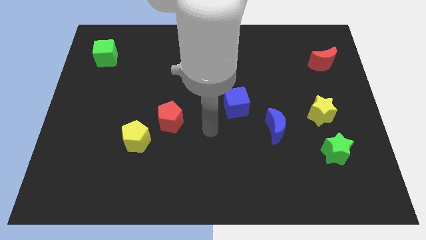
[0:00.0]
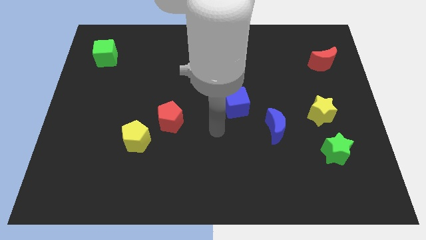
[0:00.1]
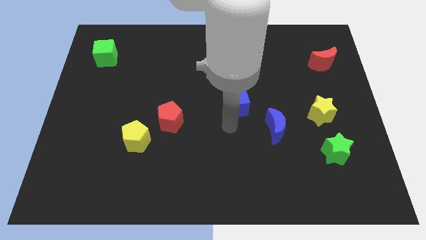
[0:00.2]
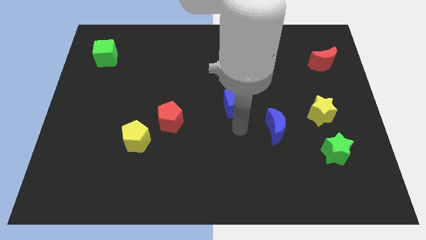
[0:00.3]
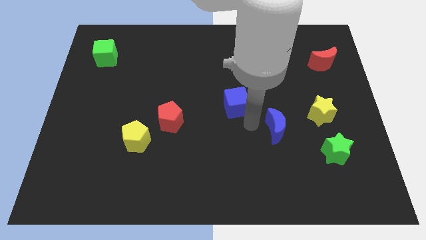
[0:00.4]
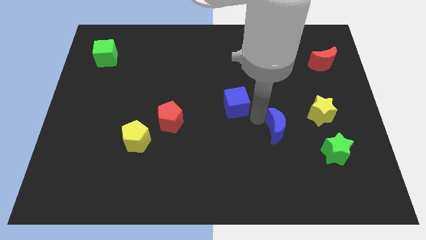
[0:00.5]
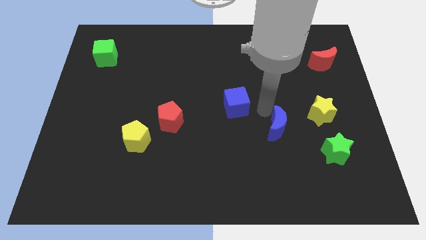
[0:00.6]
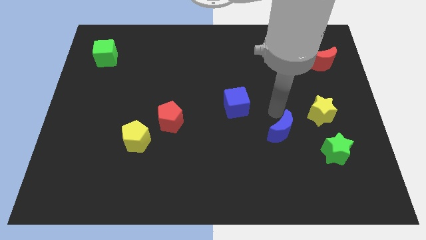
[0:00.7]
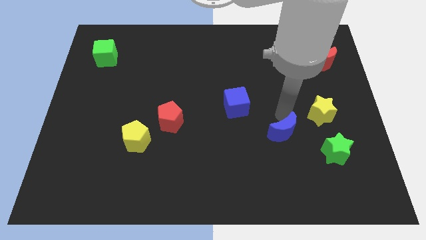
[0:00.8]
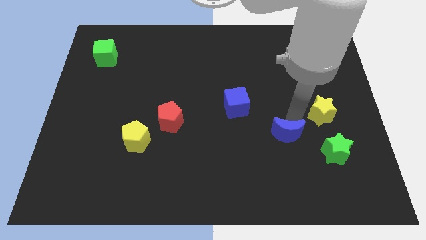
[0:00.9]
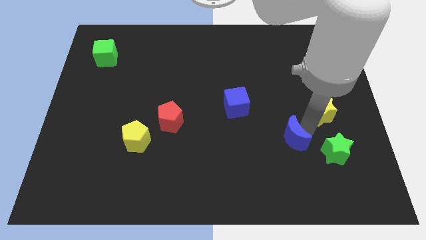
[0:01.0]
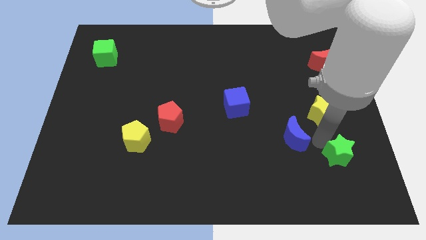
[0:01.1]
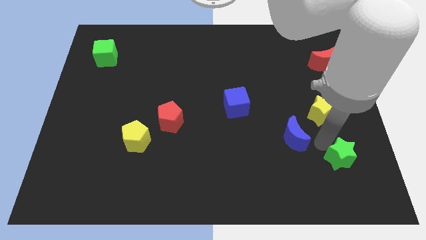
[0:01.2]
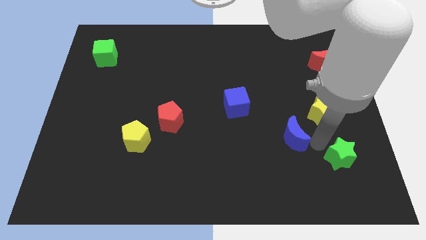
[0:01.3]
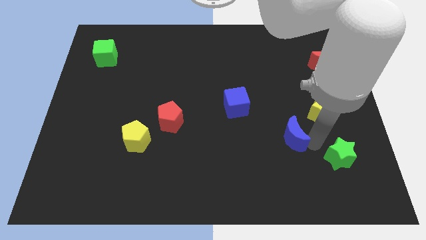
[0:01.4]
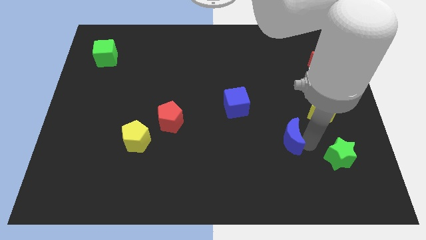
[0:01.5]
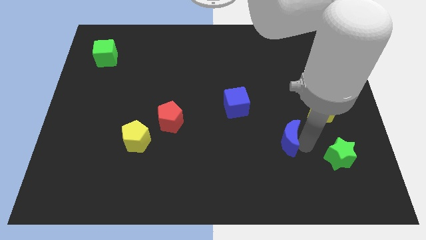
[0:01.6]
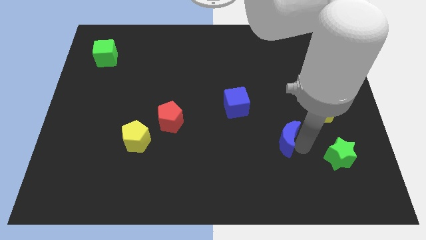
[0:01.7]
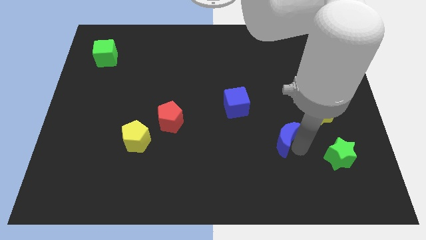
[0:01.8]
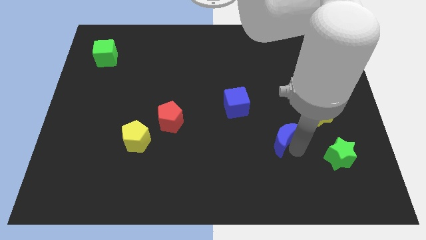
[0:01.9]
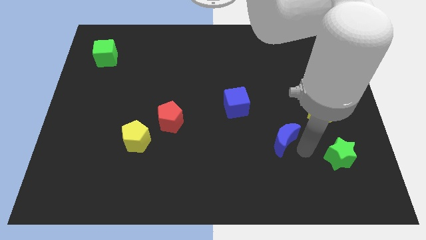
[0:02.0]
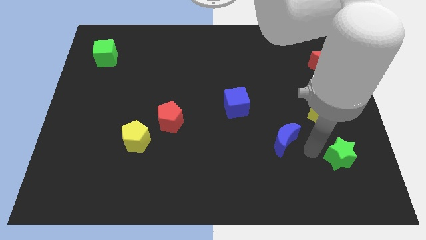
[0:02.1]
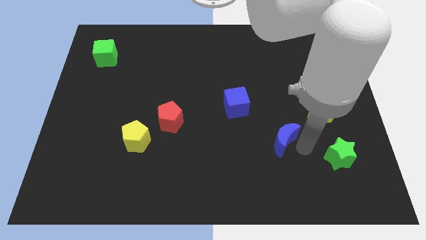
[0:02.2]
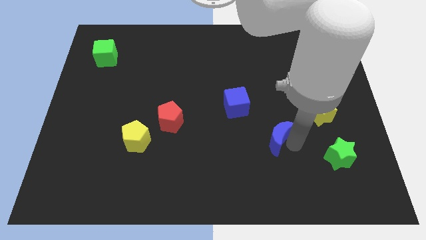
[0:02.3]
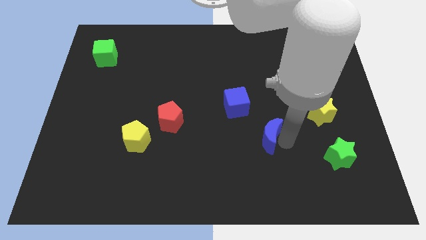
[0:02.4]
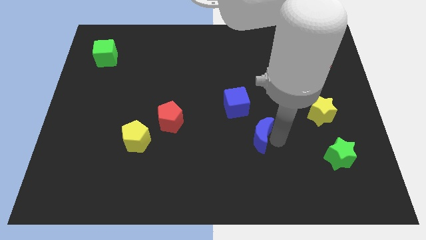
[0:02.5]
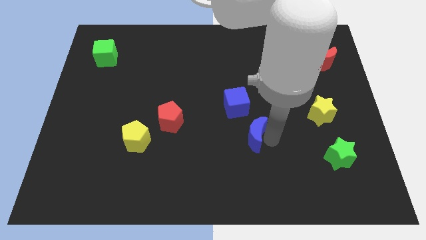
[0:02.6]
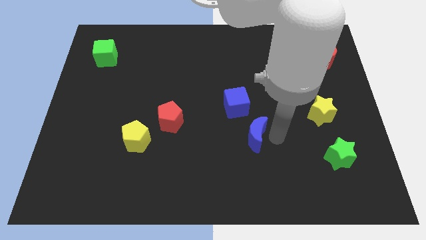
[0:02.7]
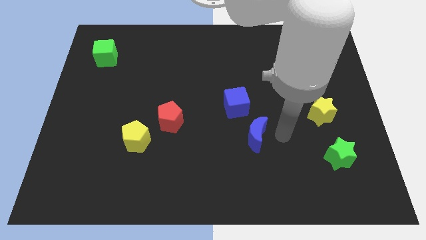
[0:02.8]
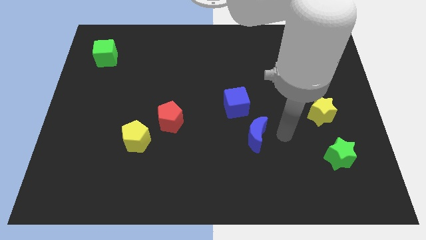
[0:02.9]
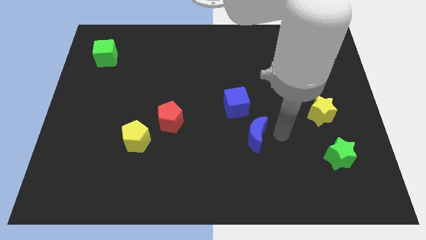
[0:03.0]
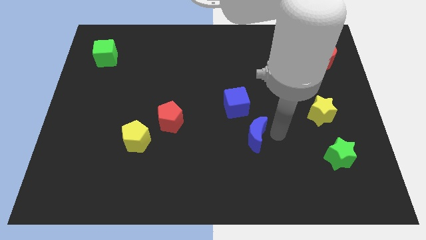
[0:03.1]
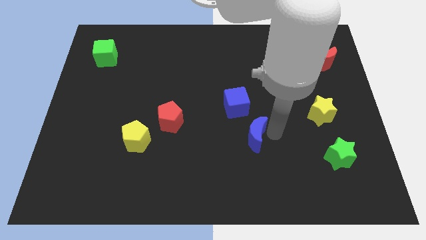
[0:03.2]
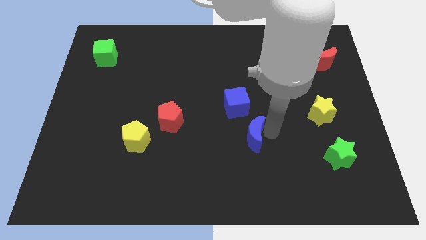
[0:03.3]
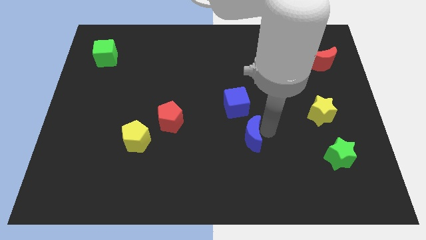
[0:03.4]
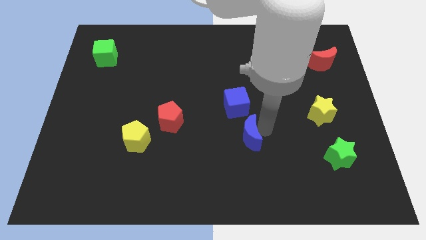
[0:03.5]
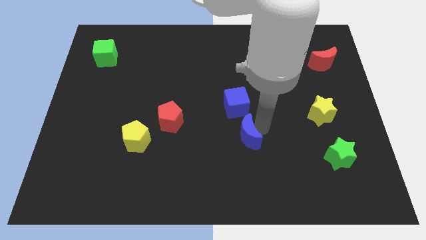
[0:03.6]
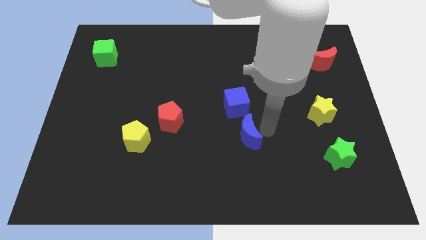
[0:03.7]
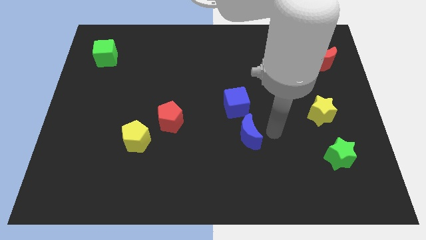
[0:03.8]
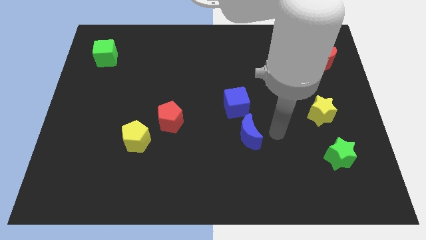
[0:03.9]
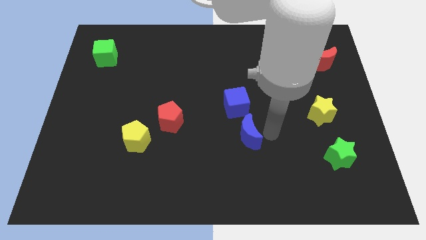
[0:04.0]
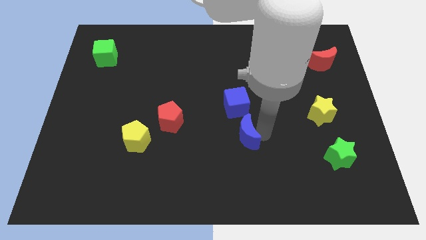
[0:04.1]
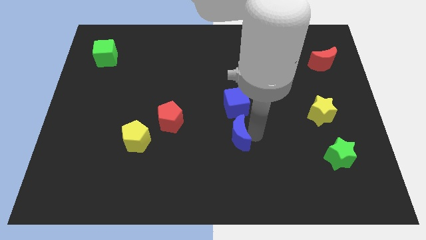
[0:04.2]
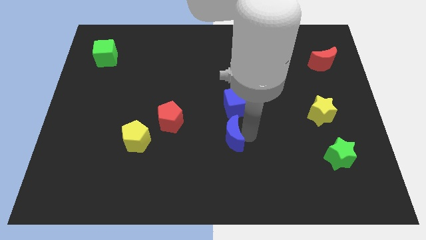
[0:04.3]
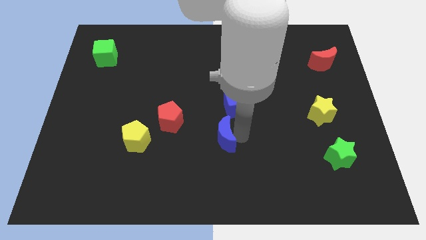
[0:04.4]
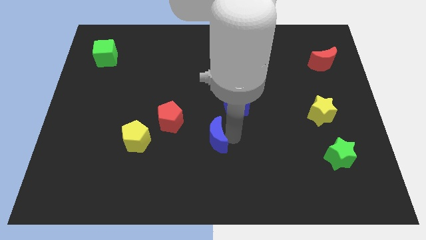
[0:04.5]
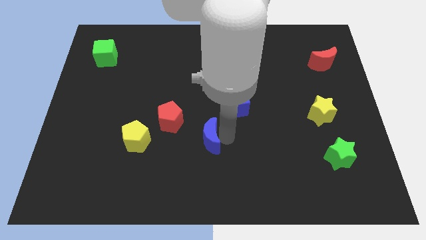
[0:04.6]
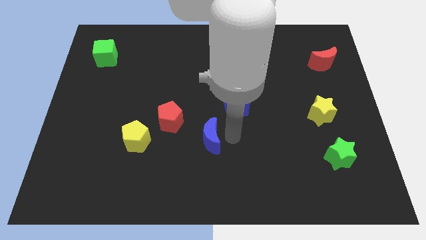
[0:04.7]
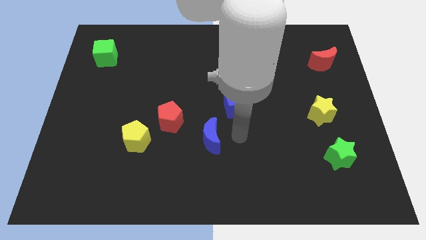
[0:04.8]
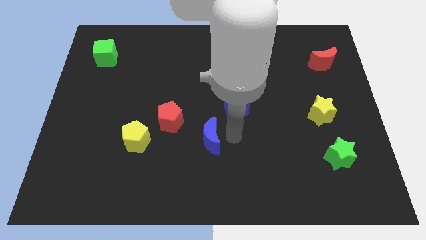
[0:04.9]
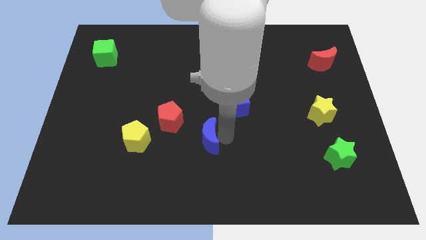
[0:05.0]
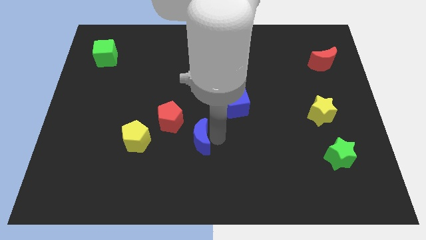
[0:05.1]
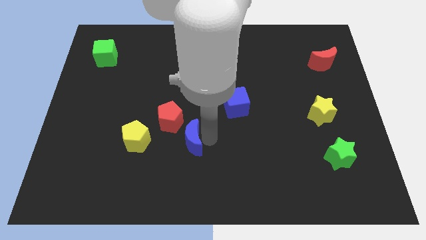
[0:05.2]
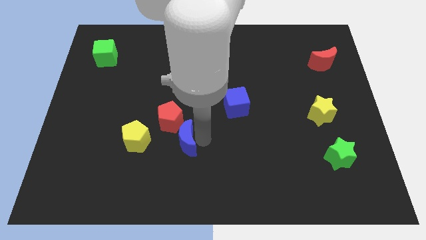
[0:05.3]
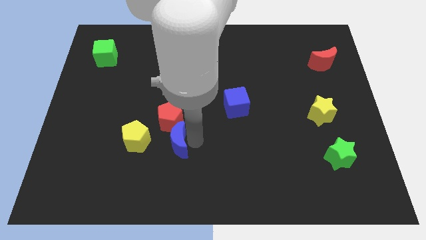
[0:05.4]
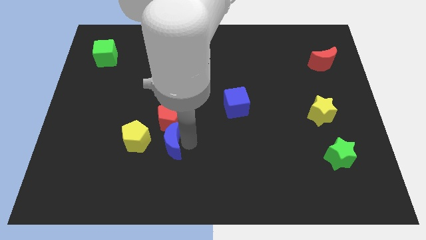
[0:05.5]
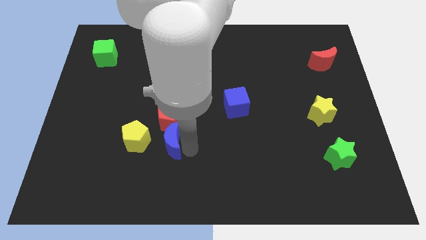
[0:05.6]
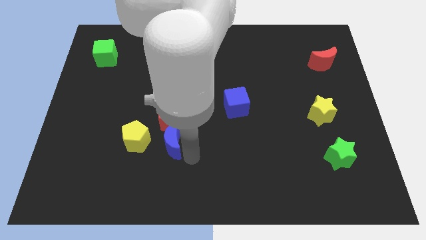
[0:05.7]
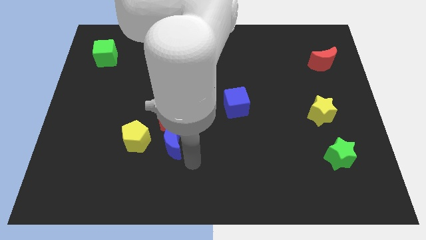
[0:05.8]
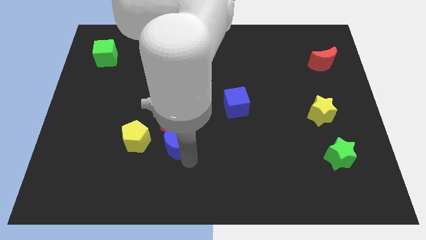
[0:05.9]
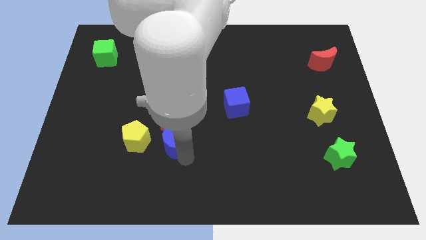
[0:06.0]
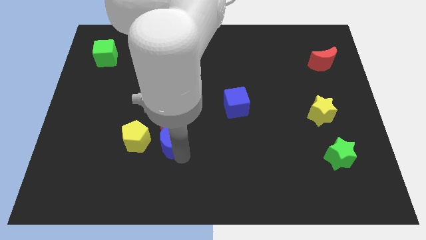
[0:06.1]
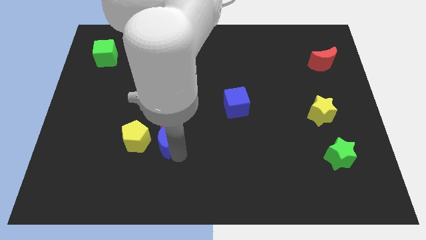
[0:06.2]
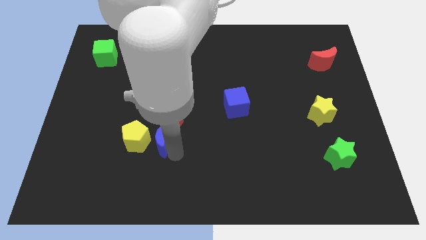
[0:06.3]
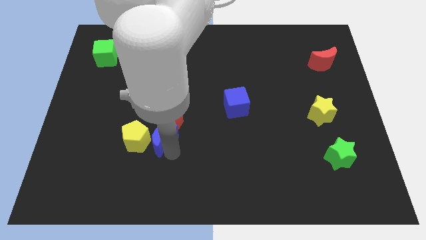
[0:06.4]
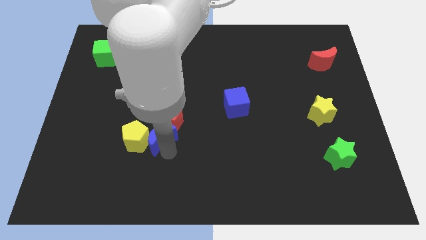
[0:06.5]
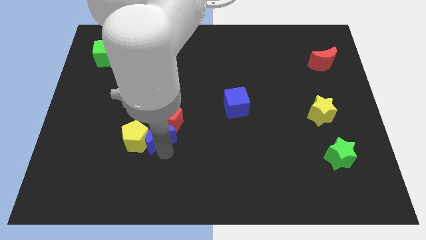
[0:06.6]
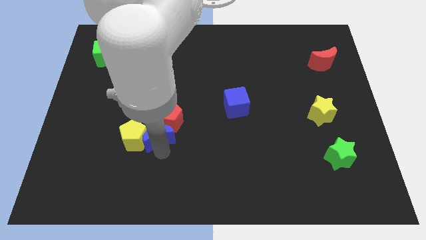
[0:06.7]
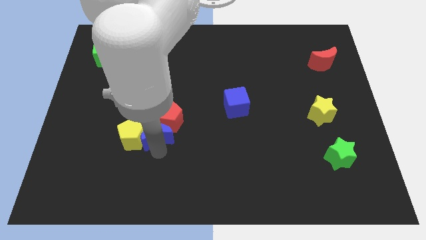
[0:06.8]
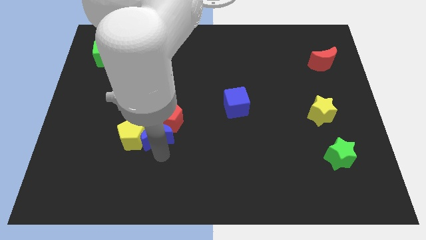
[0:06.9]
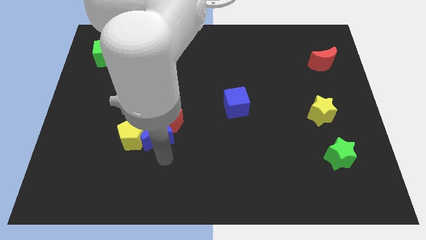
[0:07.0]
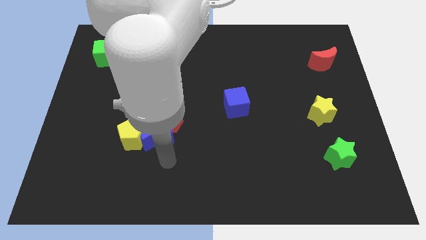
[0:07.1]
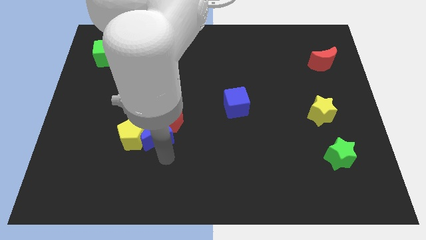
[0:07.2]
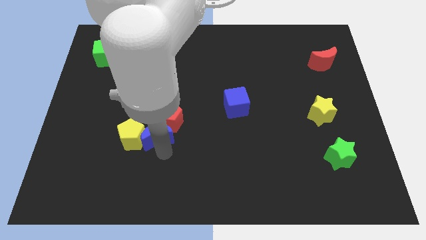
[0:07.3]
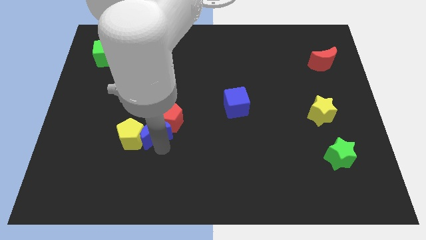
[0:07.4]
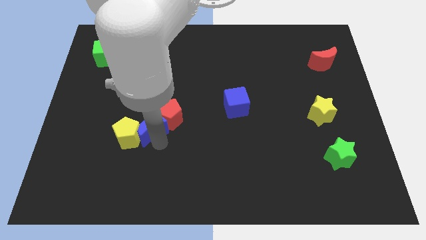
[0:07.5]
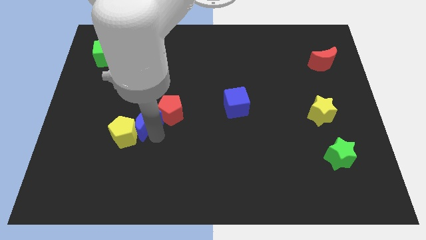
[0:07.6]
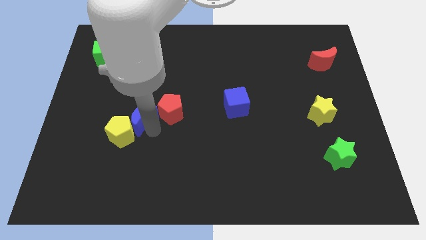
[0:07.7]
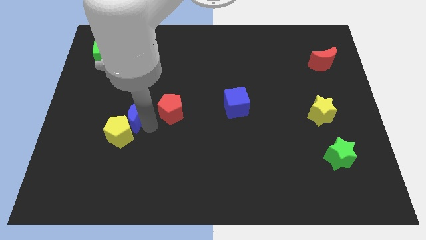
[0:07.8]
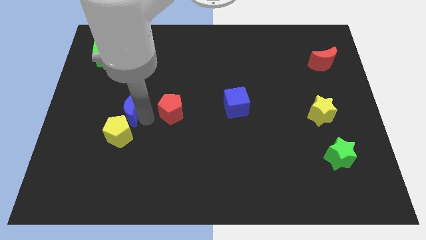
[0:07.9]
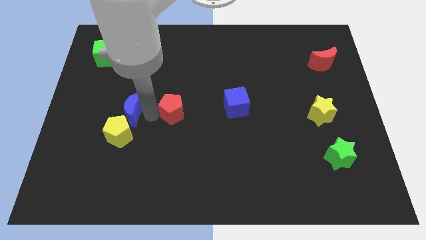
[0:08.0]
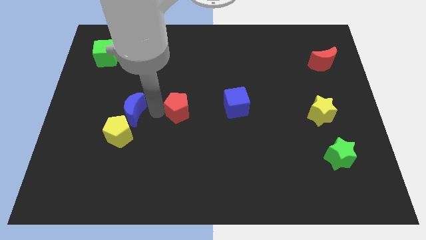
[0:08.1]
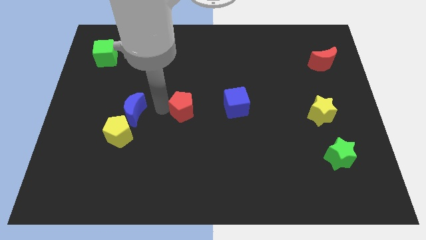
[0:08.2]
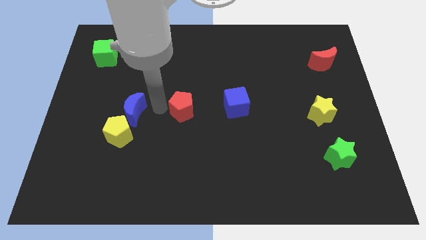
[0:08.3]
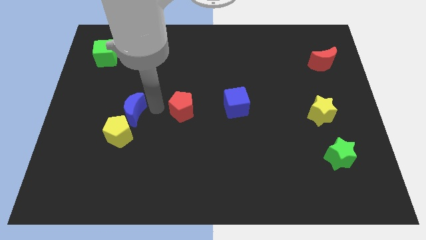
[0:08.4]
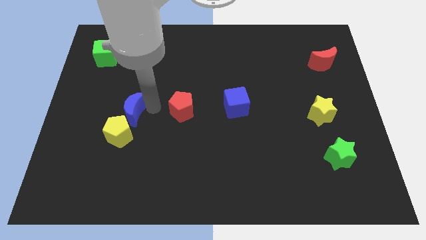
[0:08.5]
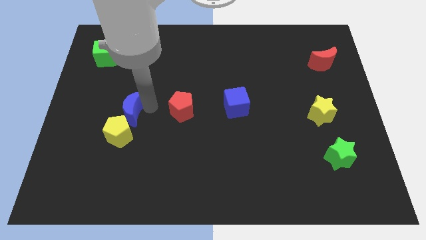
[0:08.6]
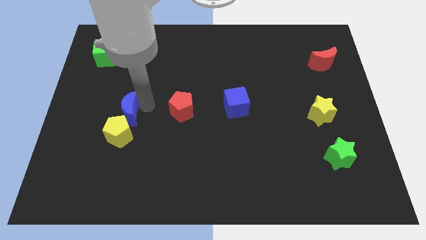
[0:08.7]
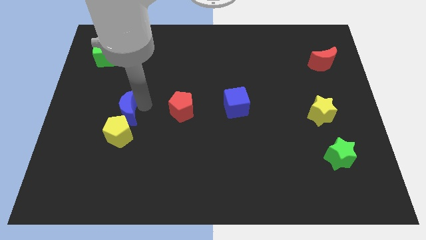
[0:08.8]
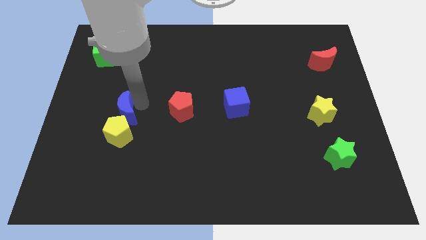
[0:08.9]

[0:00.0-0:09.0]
put the blue moon diagonally up and to the left of the yellow pentagon
